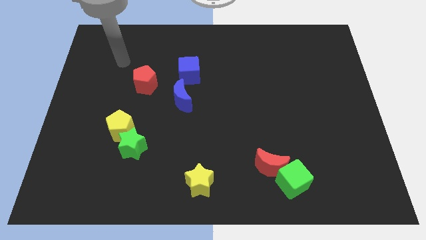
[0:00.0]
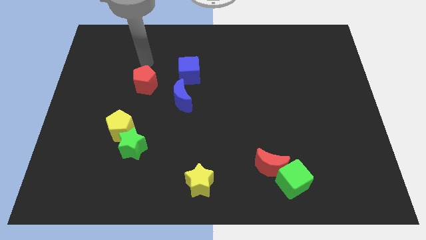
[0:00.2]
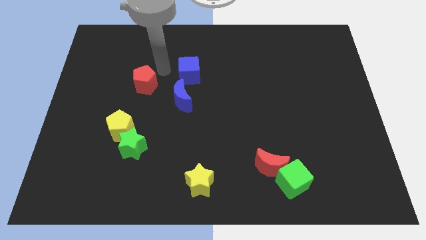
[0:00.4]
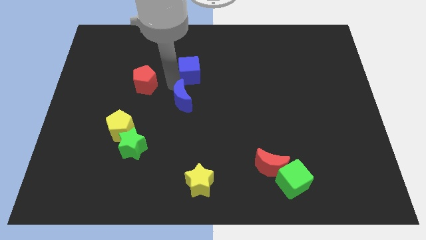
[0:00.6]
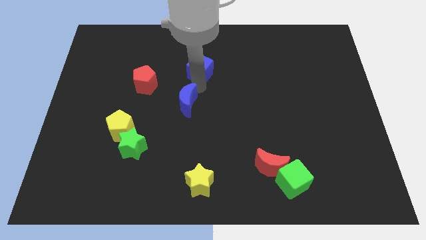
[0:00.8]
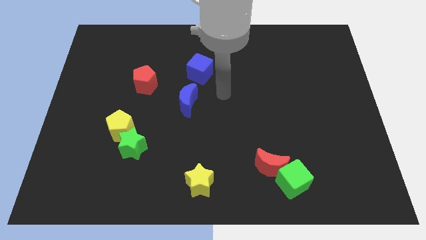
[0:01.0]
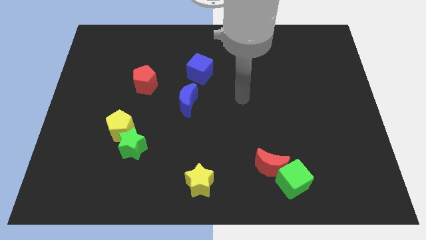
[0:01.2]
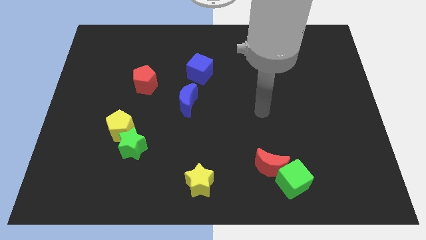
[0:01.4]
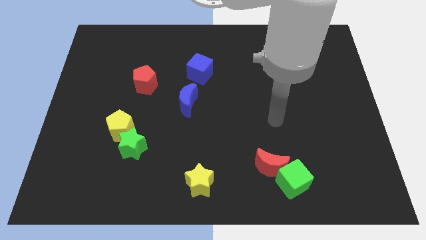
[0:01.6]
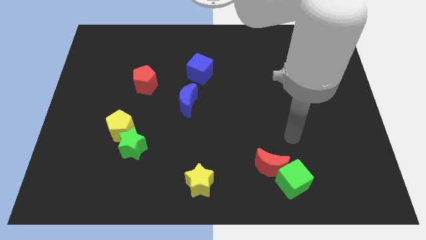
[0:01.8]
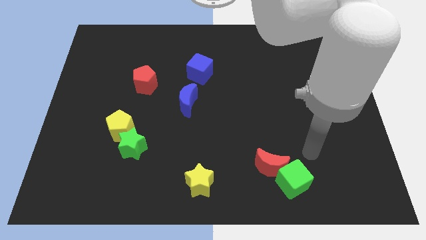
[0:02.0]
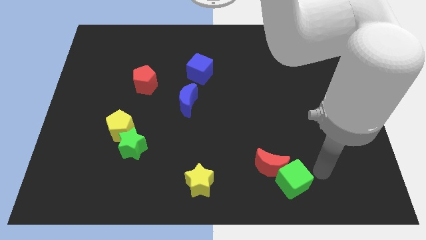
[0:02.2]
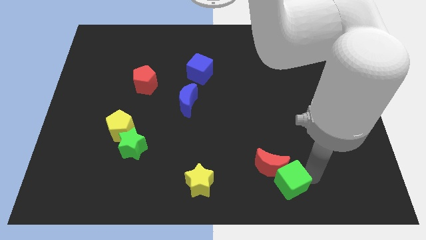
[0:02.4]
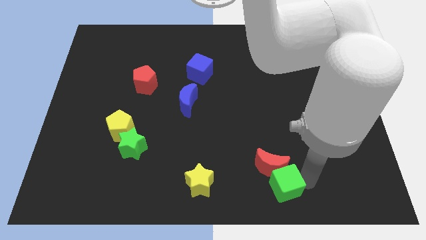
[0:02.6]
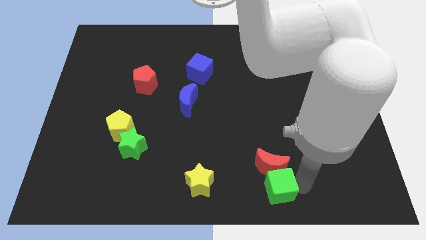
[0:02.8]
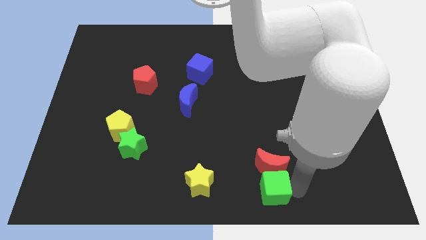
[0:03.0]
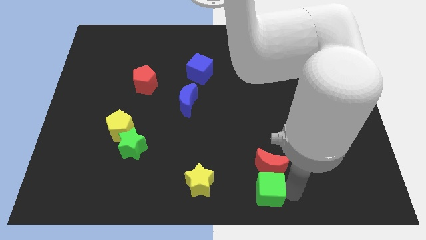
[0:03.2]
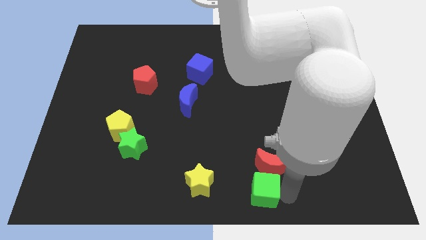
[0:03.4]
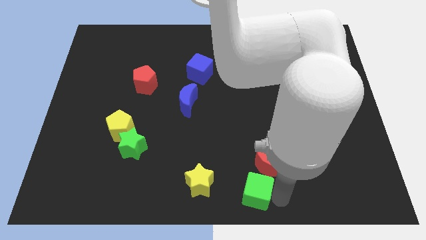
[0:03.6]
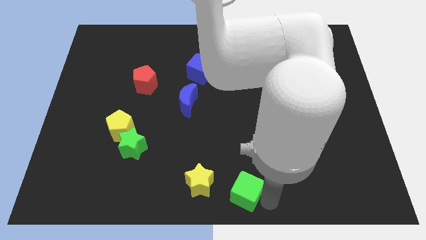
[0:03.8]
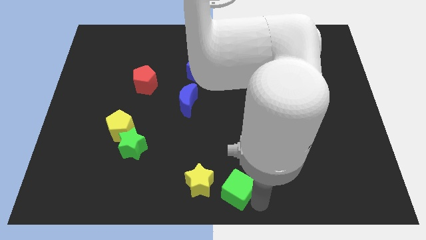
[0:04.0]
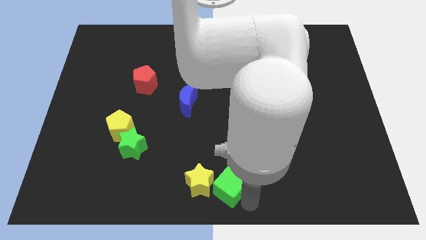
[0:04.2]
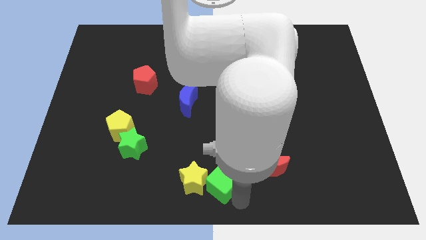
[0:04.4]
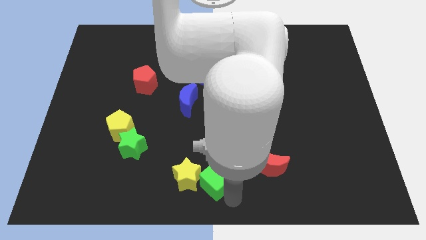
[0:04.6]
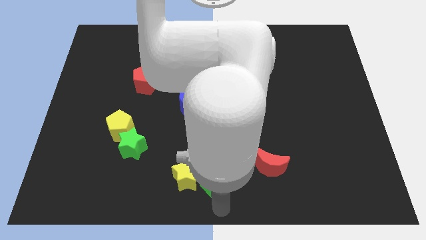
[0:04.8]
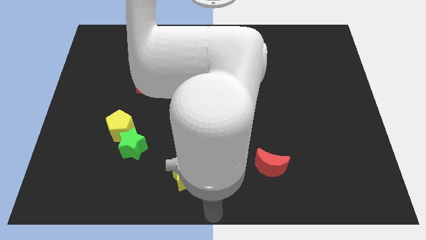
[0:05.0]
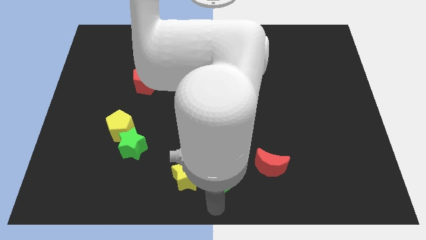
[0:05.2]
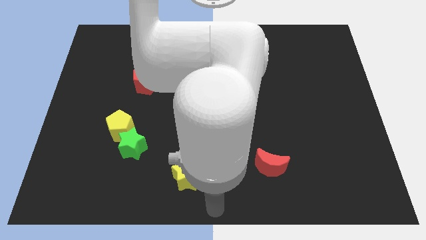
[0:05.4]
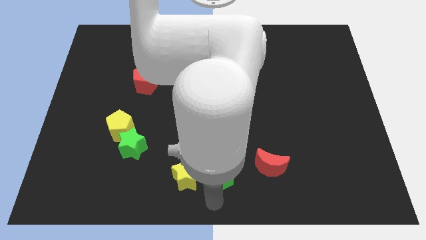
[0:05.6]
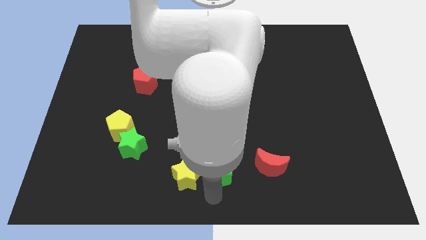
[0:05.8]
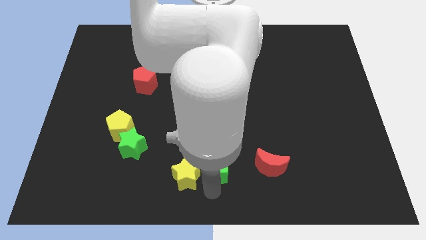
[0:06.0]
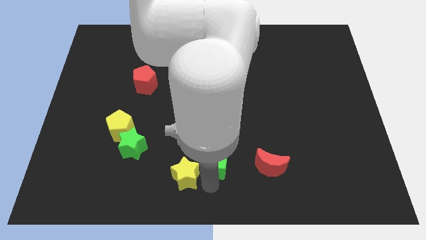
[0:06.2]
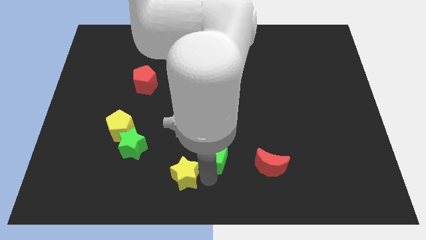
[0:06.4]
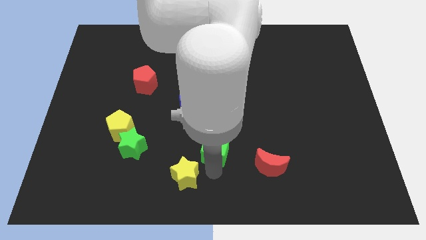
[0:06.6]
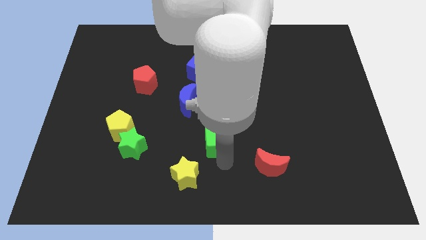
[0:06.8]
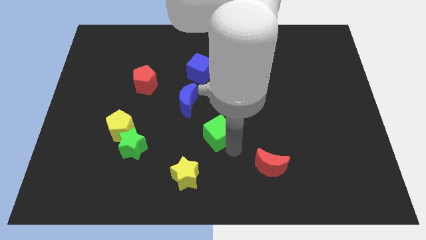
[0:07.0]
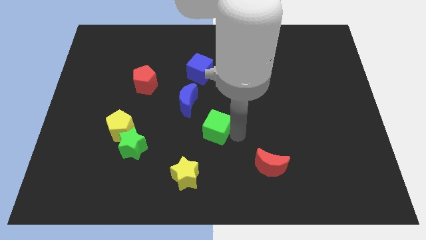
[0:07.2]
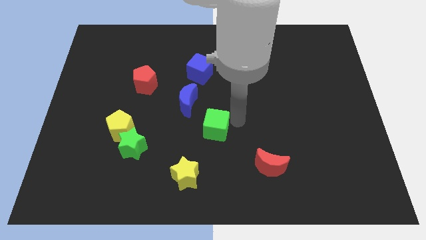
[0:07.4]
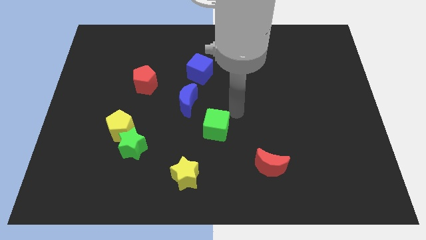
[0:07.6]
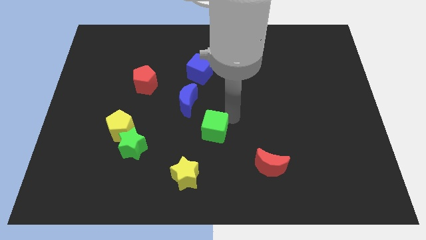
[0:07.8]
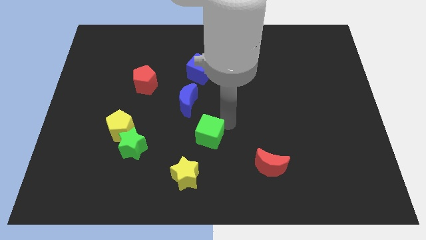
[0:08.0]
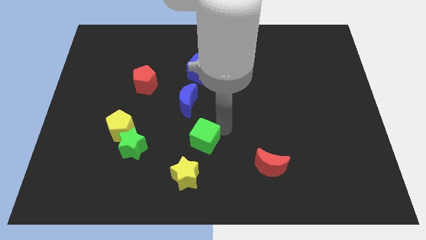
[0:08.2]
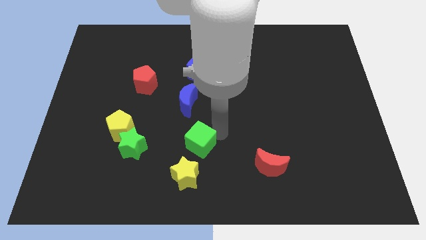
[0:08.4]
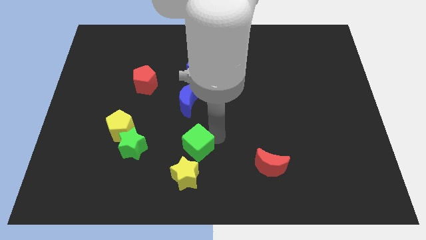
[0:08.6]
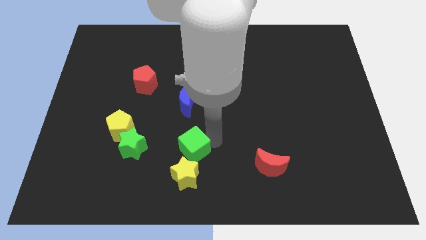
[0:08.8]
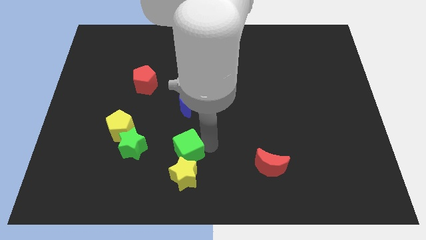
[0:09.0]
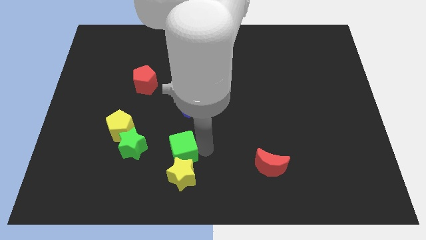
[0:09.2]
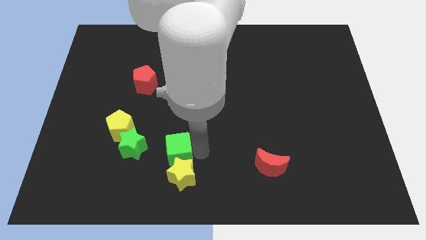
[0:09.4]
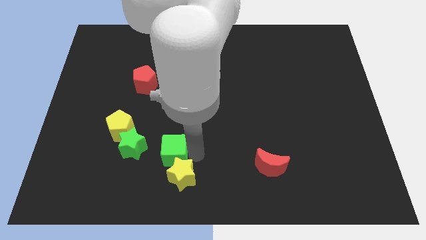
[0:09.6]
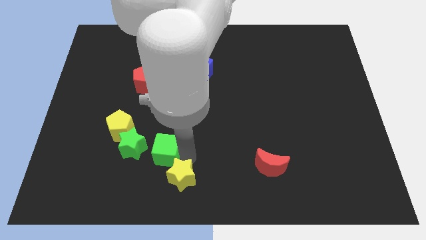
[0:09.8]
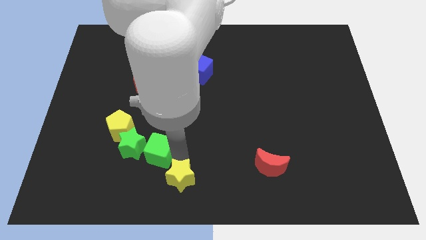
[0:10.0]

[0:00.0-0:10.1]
put the green cube close to the green star

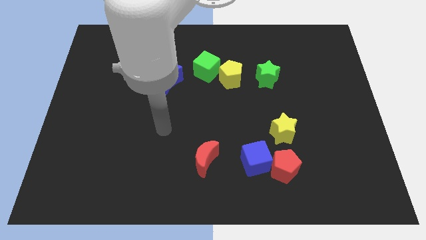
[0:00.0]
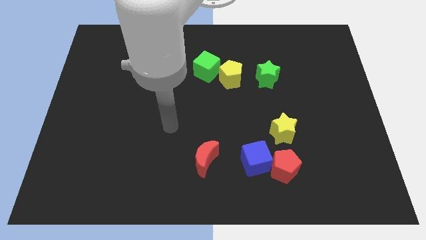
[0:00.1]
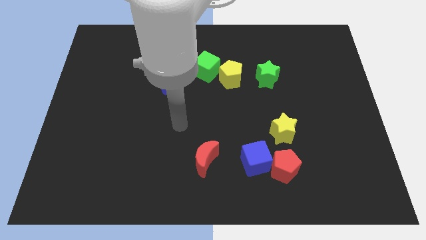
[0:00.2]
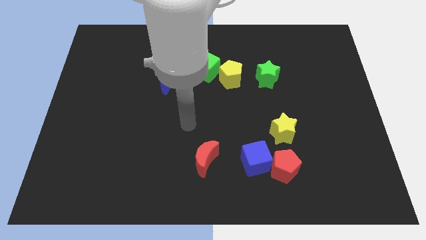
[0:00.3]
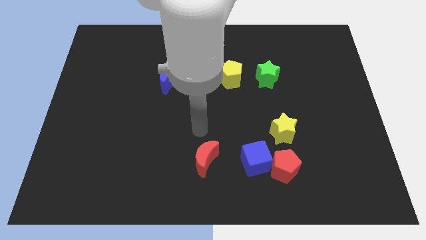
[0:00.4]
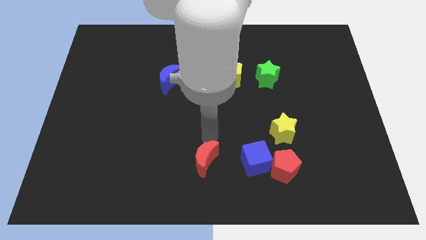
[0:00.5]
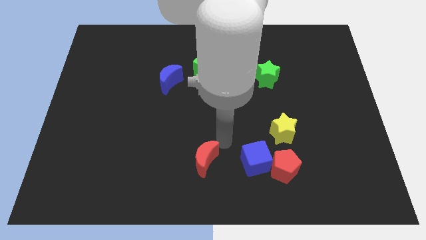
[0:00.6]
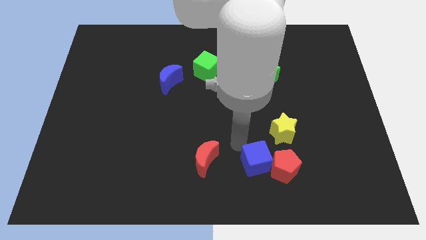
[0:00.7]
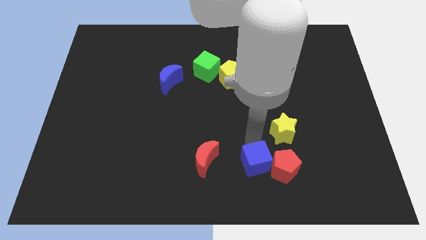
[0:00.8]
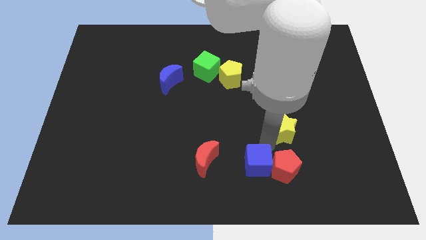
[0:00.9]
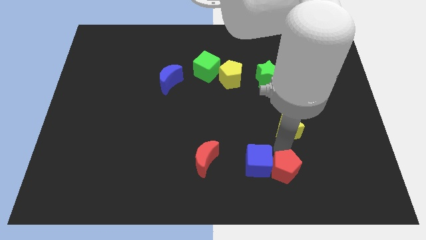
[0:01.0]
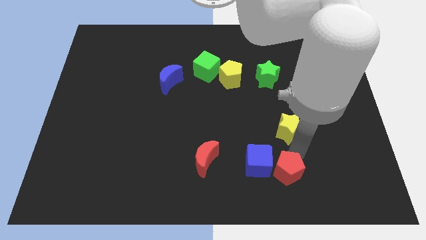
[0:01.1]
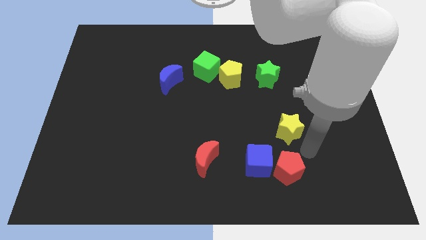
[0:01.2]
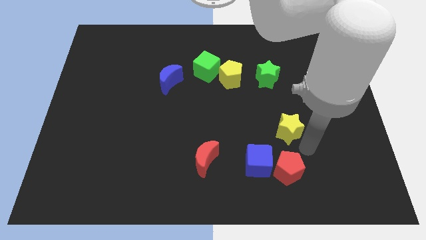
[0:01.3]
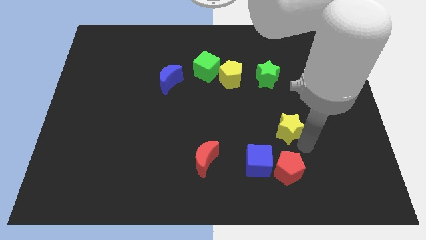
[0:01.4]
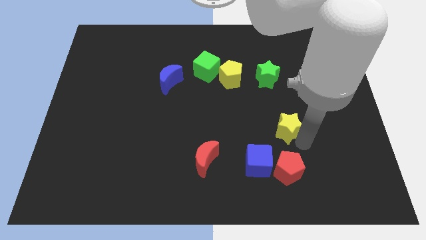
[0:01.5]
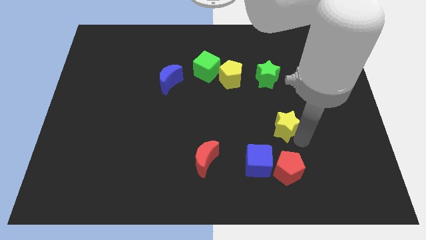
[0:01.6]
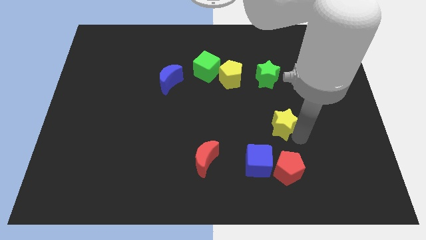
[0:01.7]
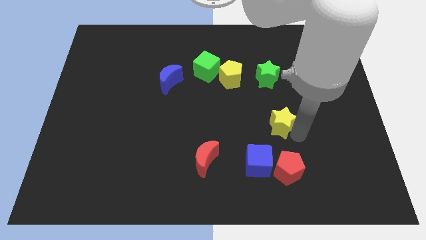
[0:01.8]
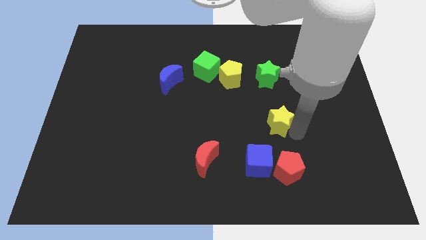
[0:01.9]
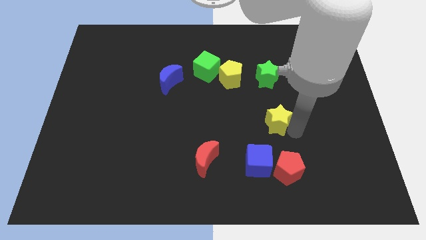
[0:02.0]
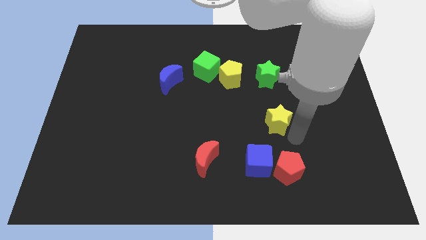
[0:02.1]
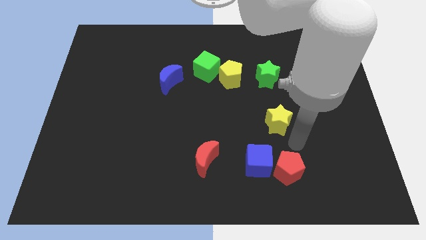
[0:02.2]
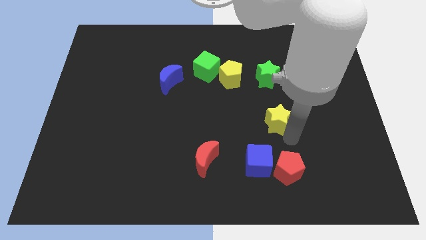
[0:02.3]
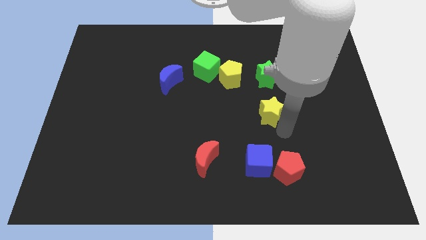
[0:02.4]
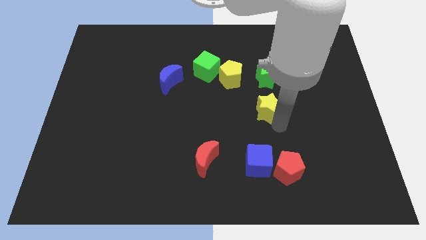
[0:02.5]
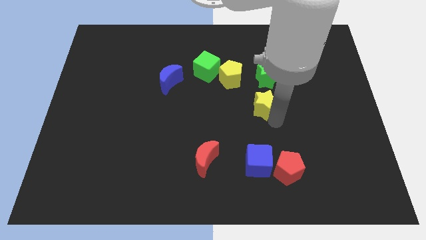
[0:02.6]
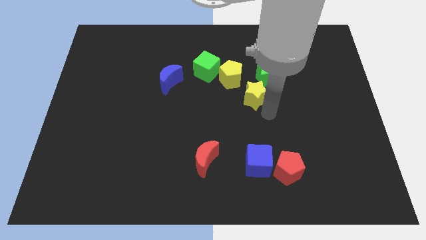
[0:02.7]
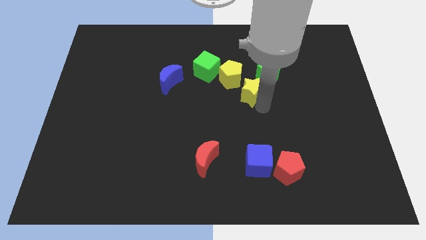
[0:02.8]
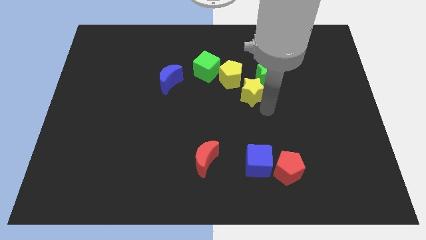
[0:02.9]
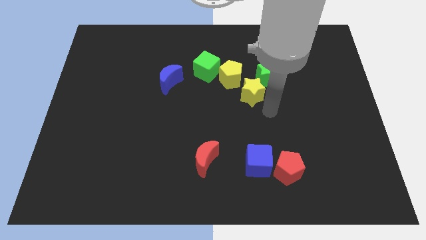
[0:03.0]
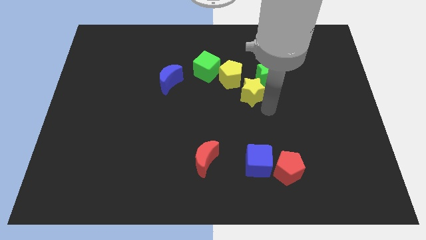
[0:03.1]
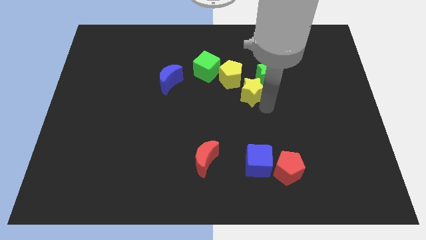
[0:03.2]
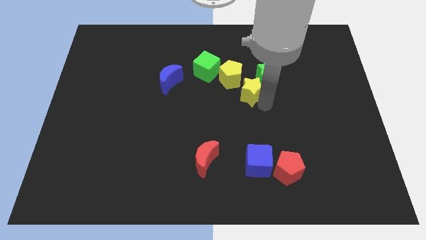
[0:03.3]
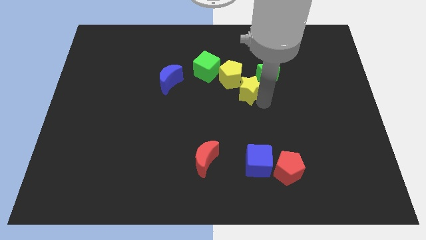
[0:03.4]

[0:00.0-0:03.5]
put the yellow star close to the yellow pentagon
